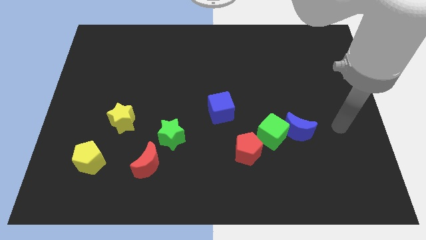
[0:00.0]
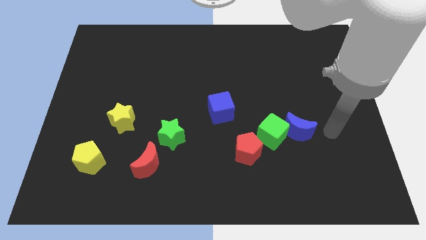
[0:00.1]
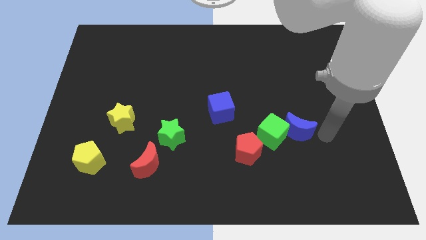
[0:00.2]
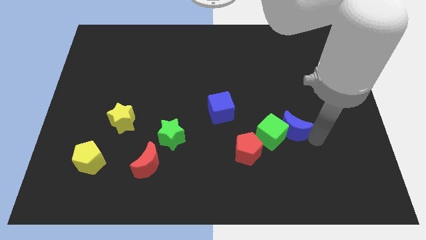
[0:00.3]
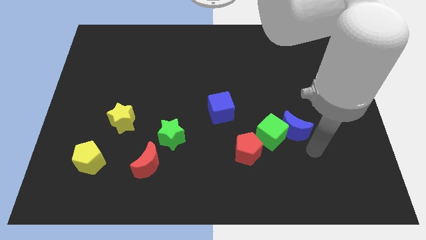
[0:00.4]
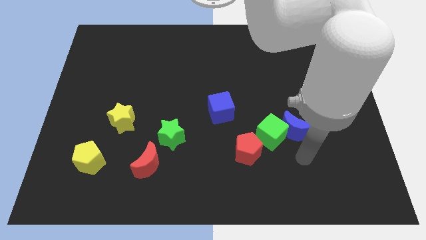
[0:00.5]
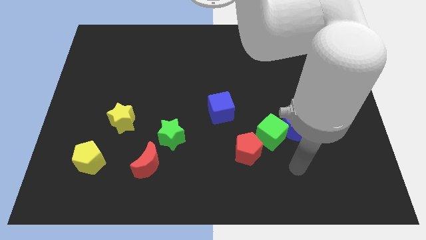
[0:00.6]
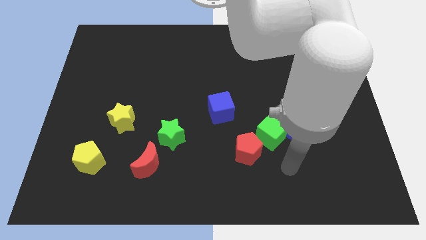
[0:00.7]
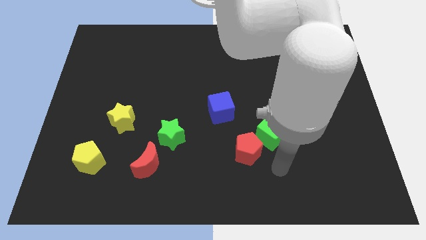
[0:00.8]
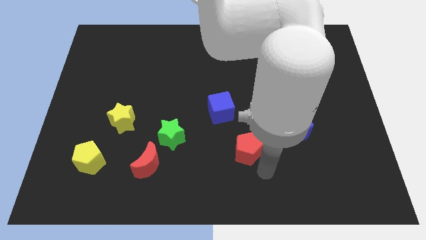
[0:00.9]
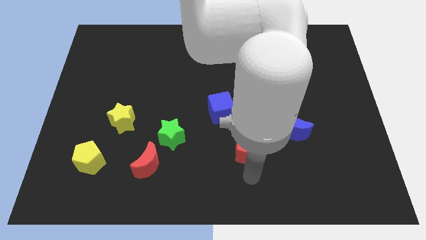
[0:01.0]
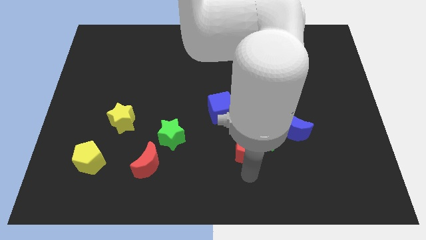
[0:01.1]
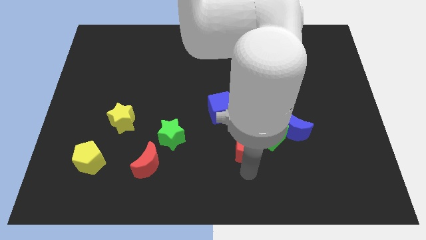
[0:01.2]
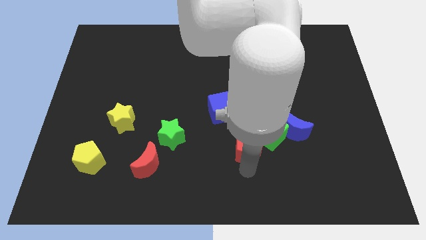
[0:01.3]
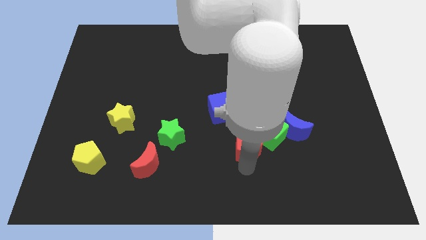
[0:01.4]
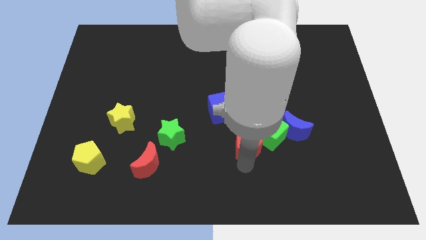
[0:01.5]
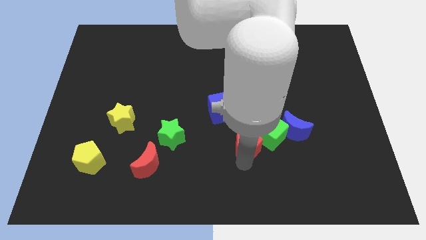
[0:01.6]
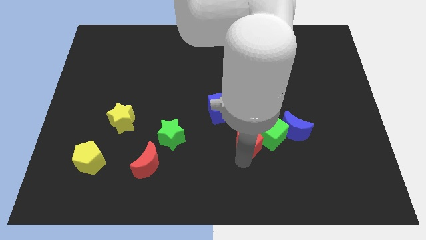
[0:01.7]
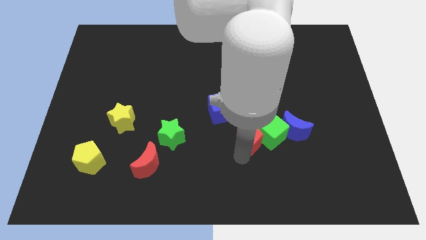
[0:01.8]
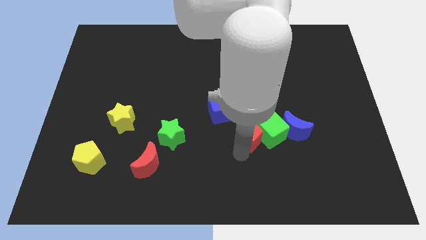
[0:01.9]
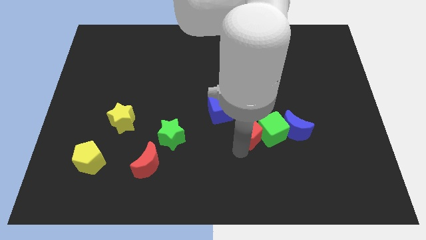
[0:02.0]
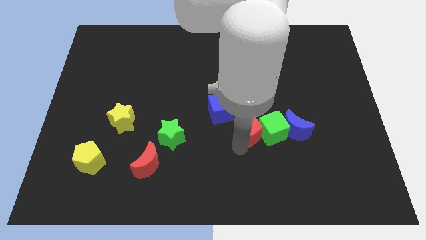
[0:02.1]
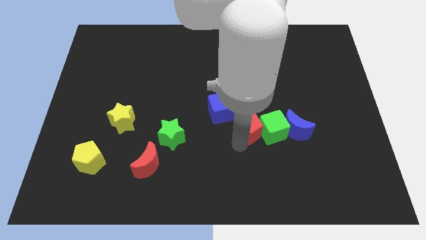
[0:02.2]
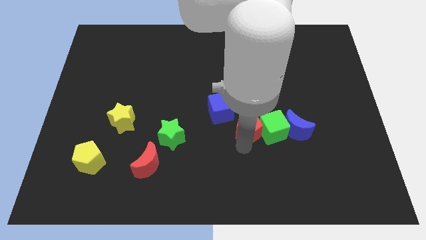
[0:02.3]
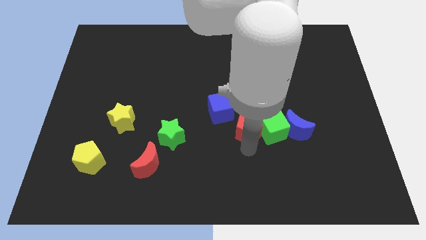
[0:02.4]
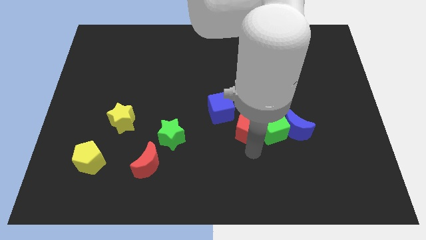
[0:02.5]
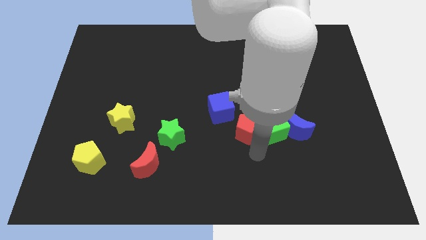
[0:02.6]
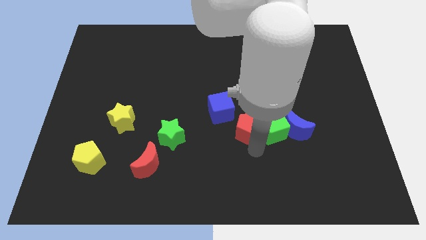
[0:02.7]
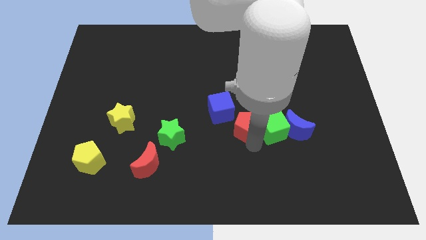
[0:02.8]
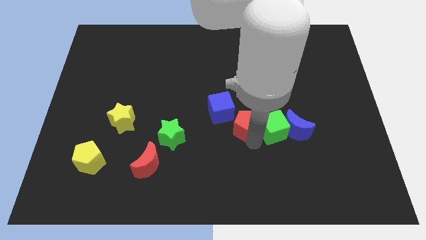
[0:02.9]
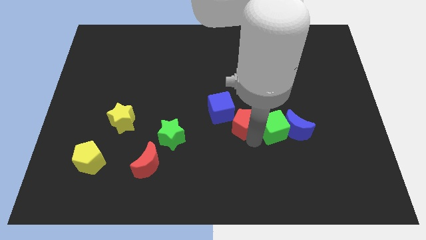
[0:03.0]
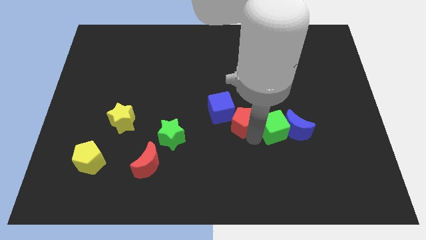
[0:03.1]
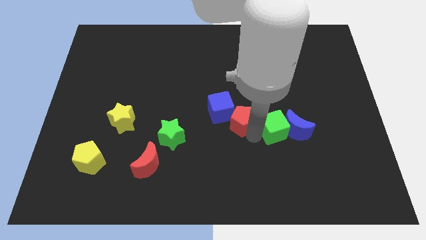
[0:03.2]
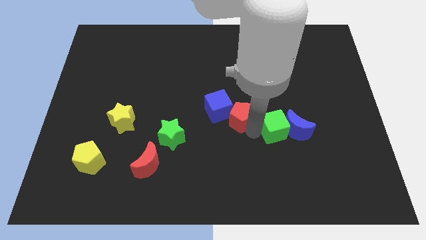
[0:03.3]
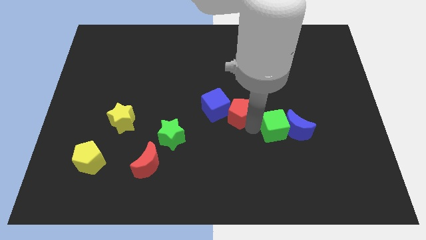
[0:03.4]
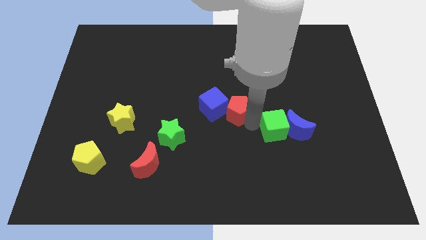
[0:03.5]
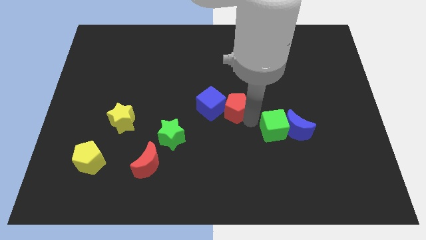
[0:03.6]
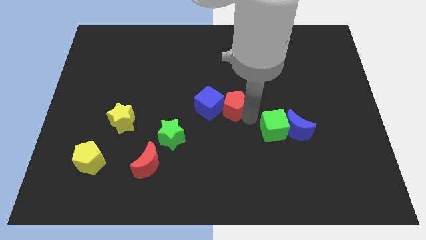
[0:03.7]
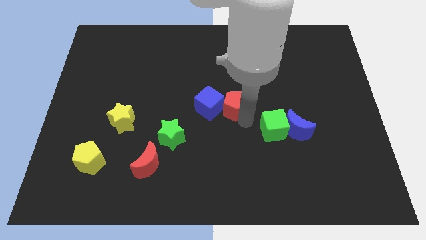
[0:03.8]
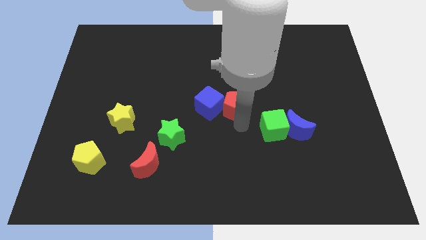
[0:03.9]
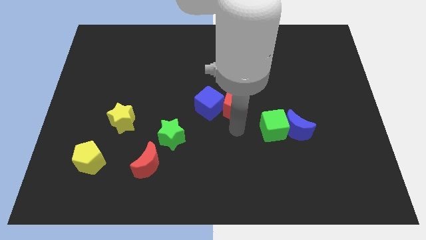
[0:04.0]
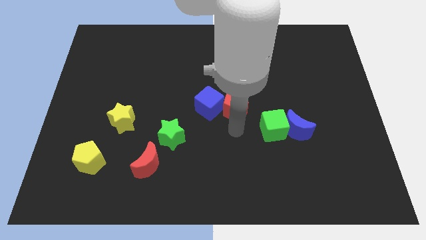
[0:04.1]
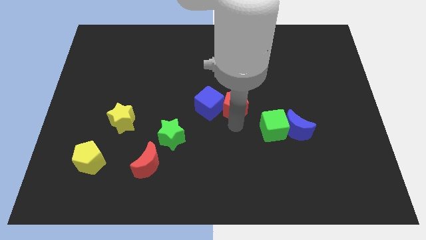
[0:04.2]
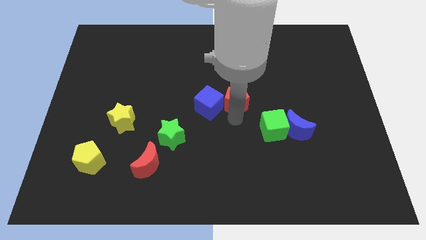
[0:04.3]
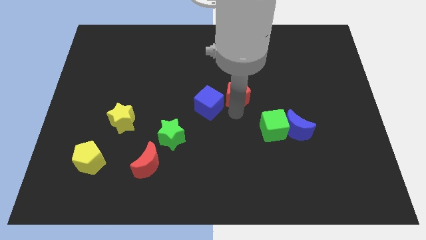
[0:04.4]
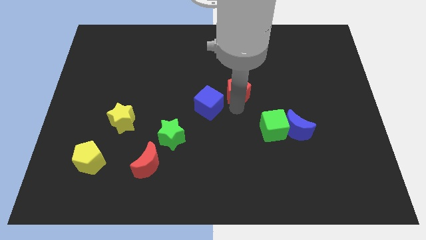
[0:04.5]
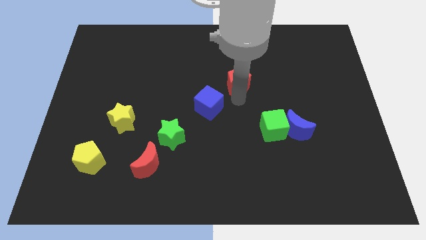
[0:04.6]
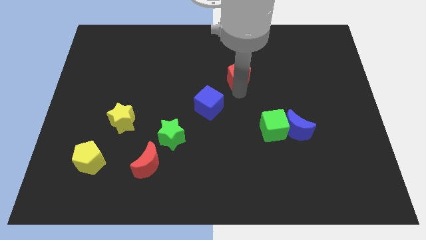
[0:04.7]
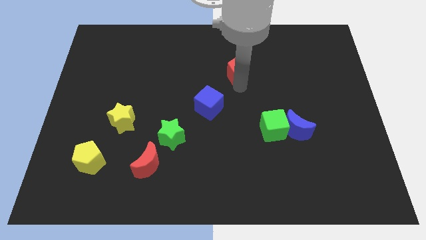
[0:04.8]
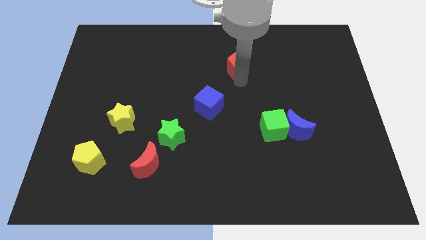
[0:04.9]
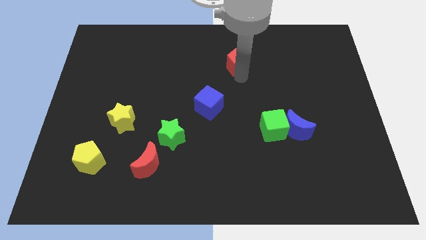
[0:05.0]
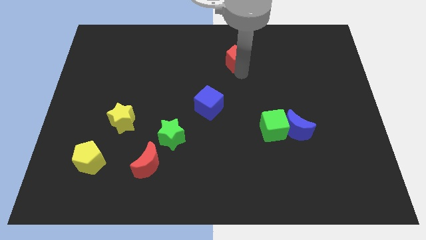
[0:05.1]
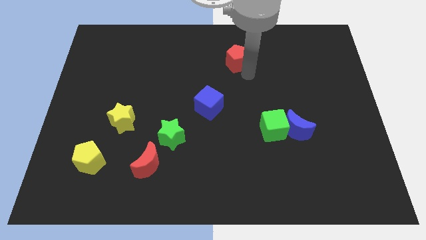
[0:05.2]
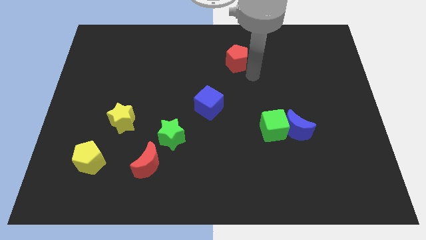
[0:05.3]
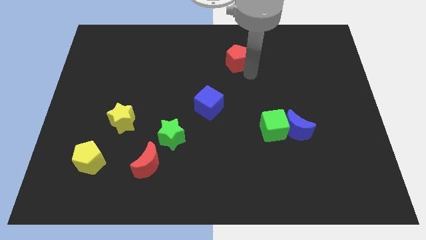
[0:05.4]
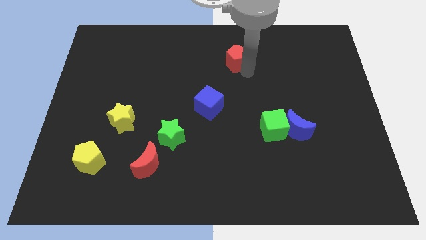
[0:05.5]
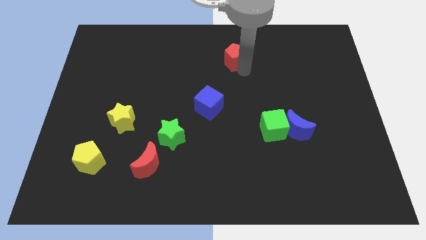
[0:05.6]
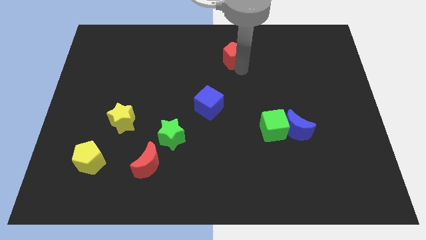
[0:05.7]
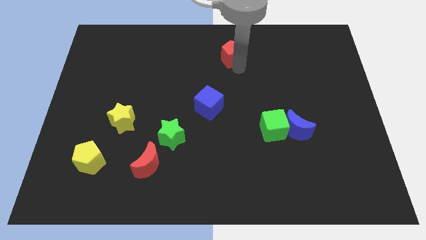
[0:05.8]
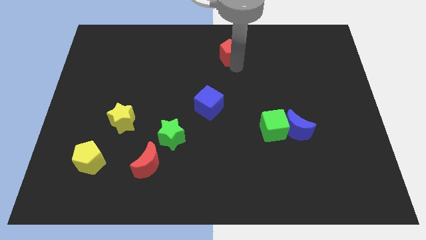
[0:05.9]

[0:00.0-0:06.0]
slide the red pentagon to the top

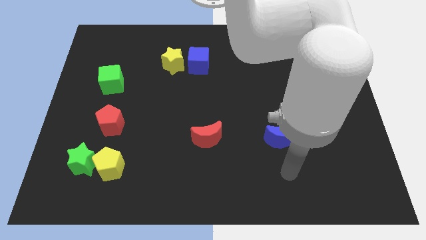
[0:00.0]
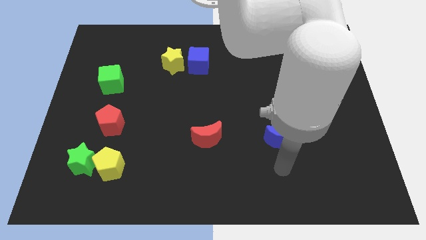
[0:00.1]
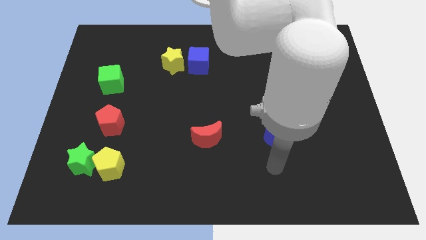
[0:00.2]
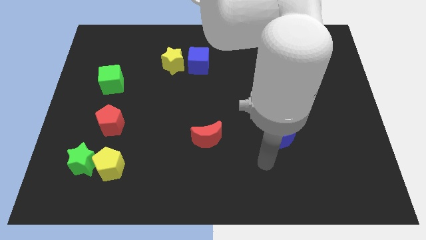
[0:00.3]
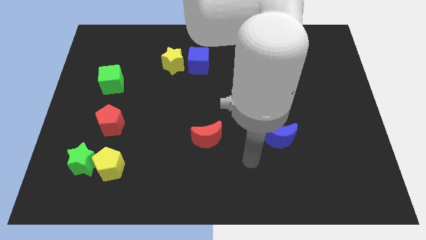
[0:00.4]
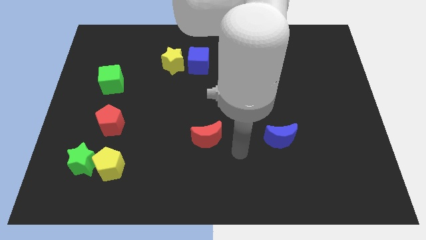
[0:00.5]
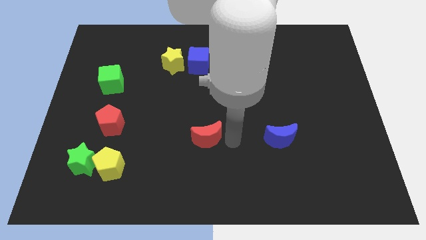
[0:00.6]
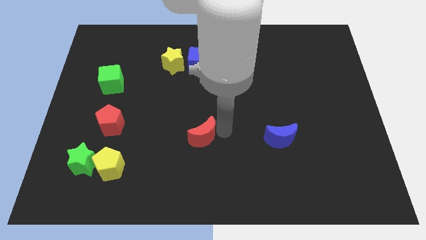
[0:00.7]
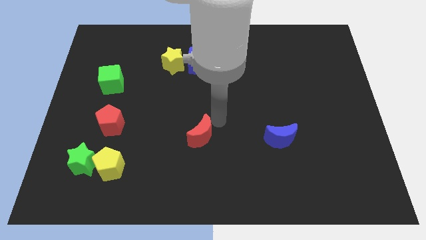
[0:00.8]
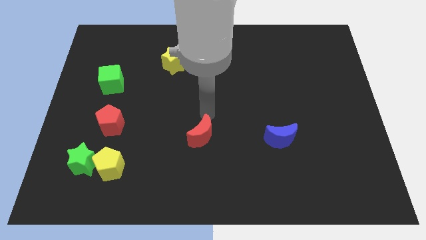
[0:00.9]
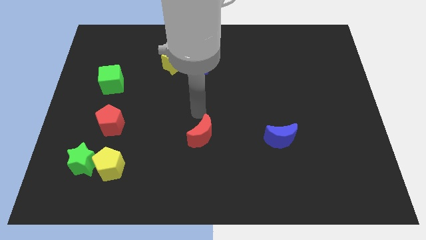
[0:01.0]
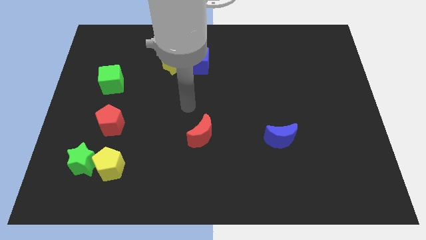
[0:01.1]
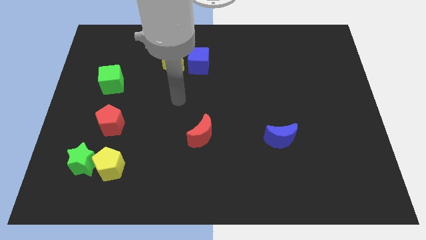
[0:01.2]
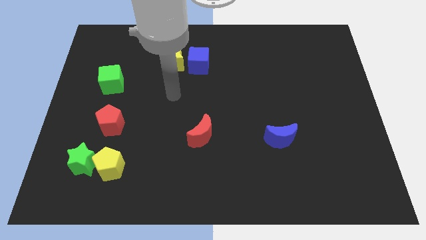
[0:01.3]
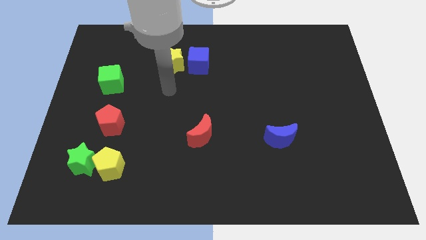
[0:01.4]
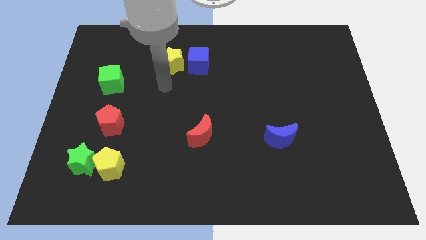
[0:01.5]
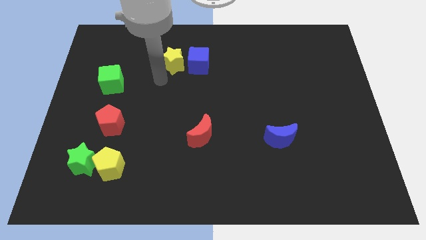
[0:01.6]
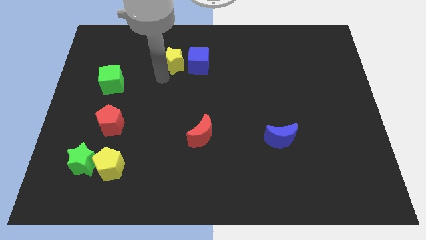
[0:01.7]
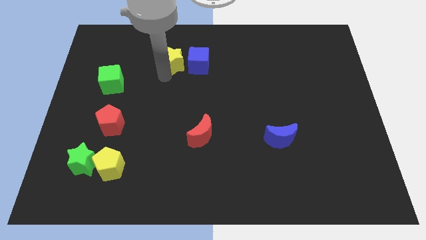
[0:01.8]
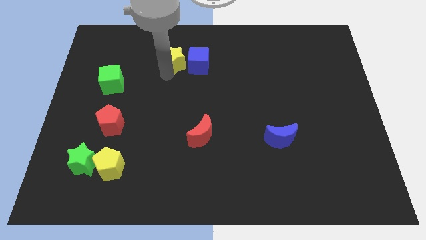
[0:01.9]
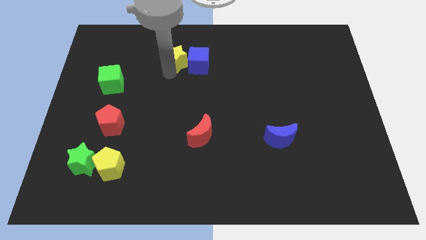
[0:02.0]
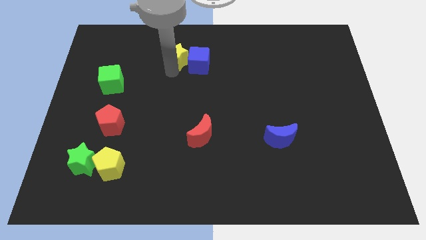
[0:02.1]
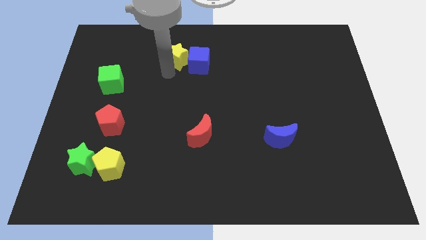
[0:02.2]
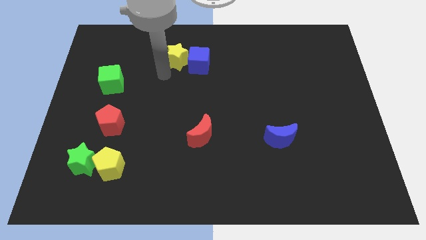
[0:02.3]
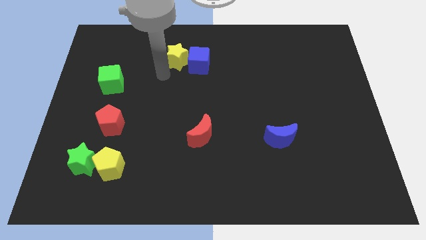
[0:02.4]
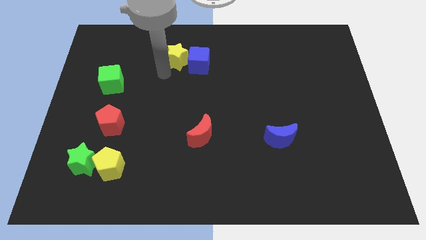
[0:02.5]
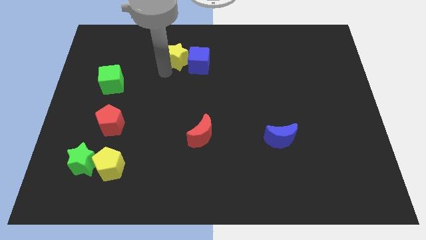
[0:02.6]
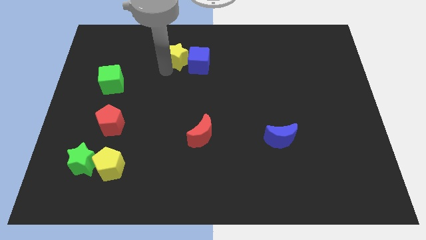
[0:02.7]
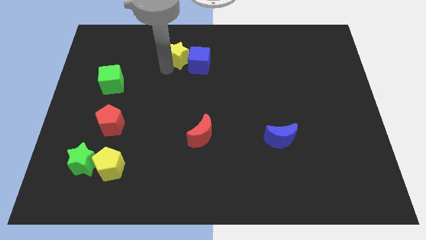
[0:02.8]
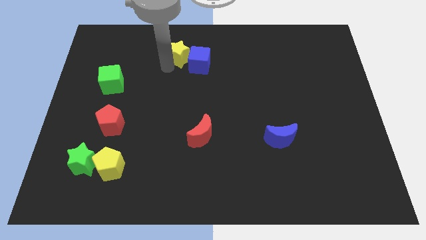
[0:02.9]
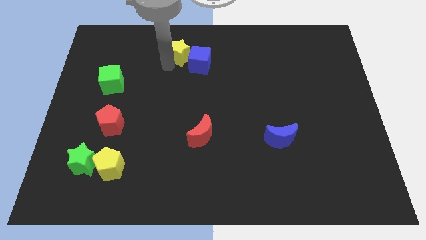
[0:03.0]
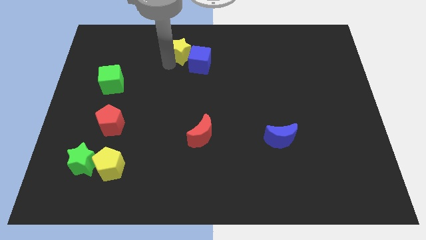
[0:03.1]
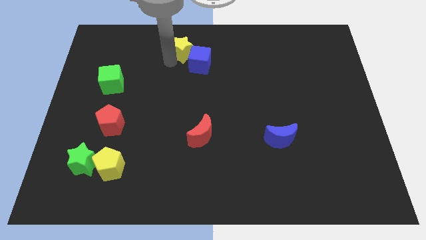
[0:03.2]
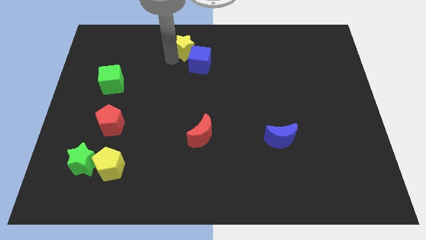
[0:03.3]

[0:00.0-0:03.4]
slide the yellow star to the top
